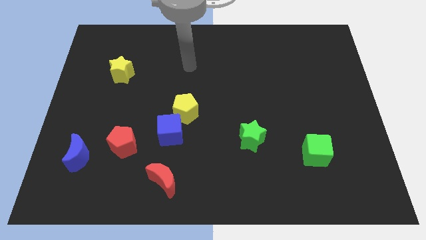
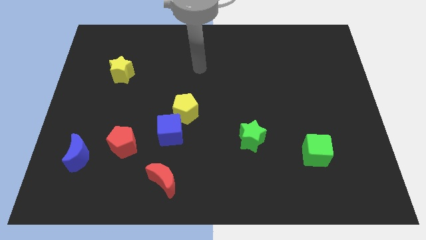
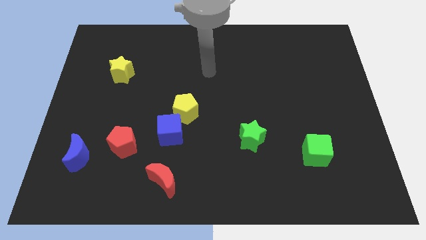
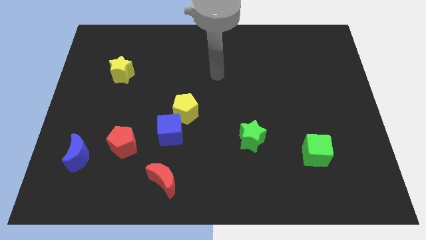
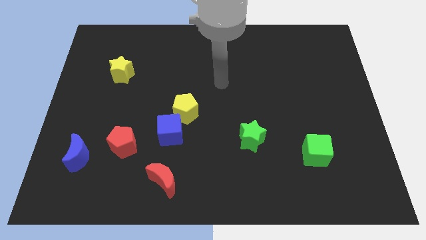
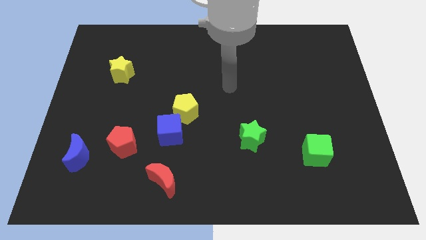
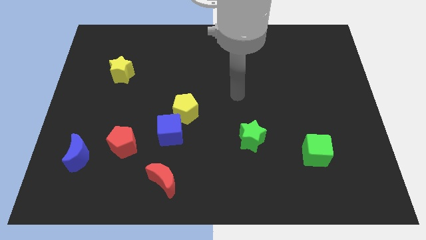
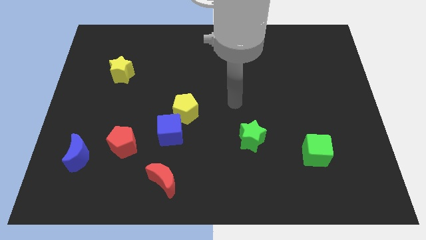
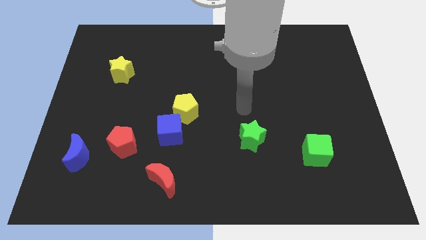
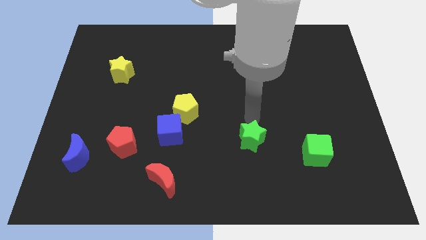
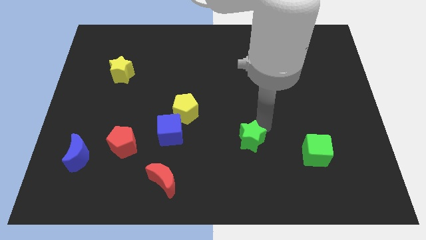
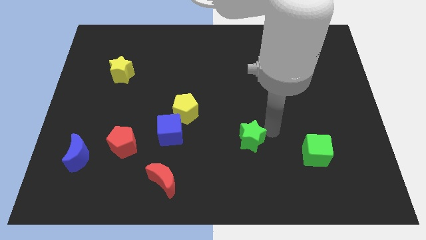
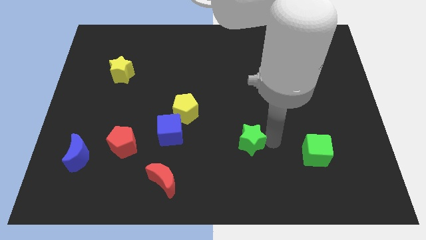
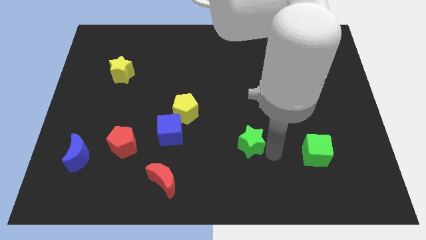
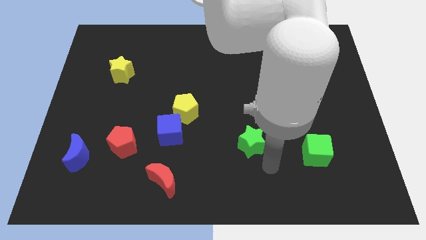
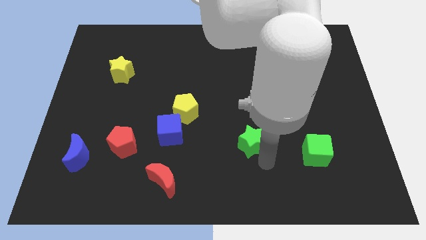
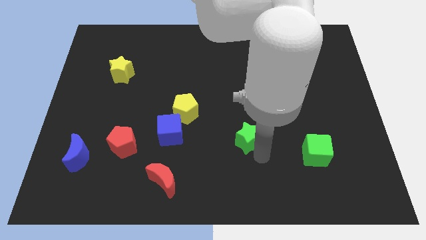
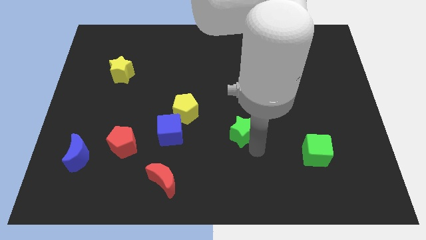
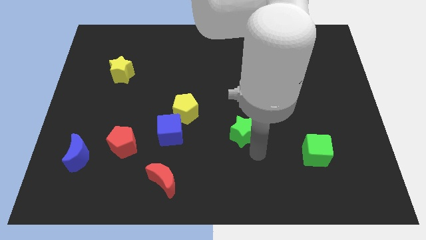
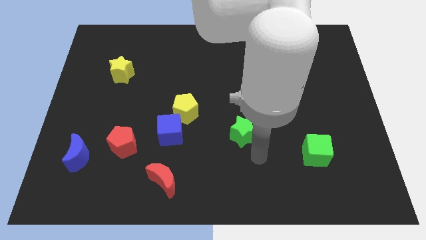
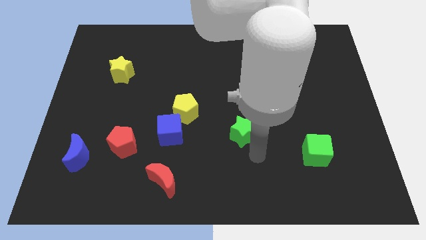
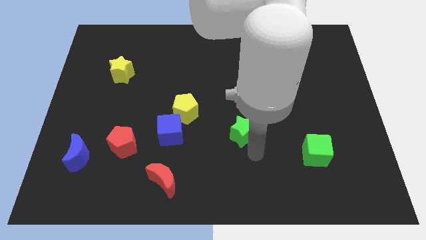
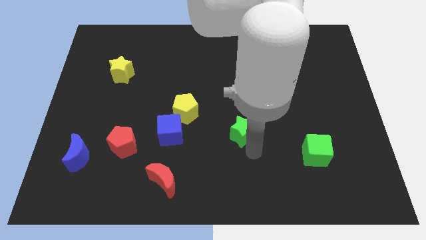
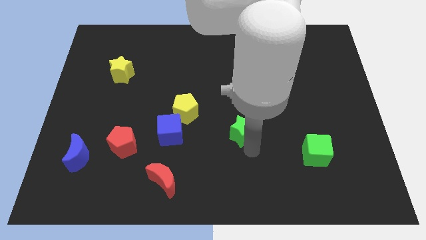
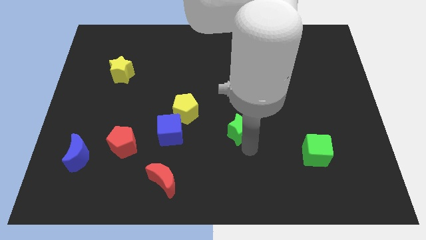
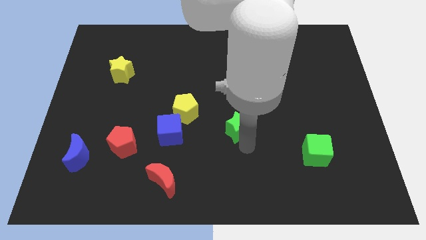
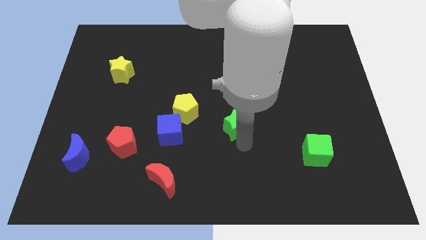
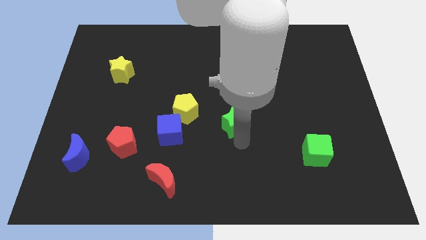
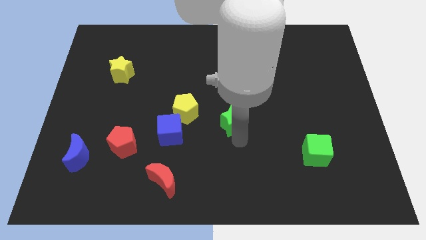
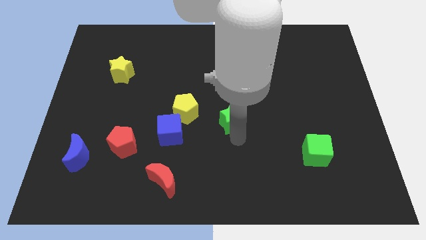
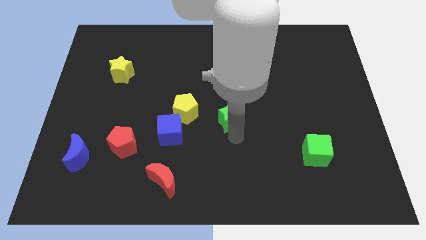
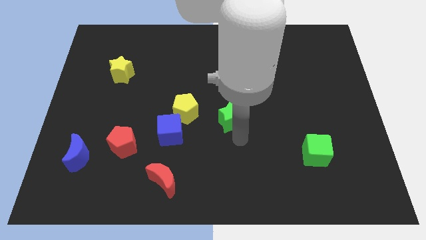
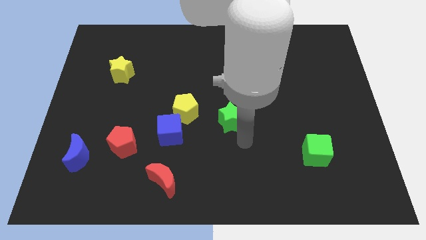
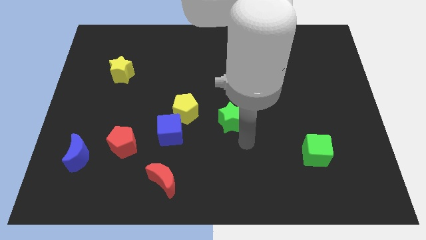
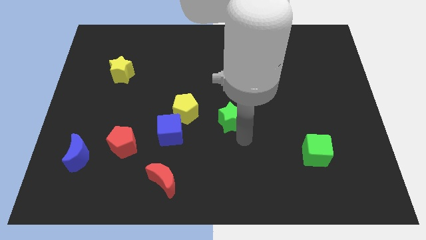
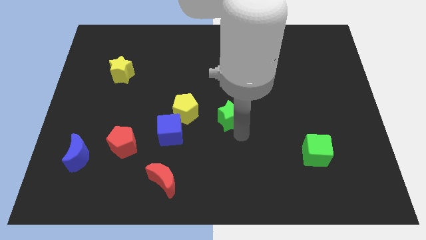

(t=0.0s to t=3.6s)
push the green star somewhat diagonally upwards and left

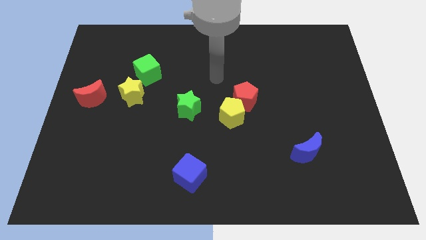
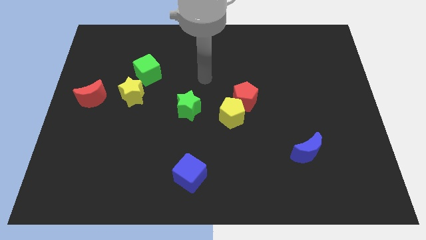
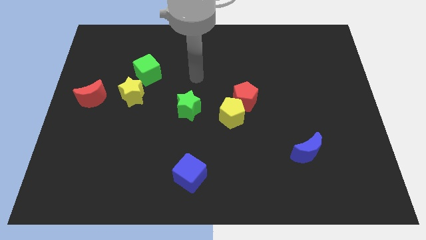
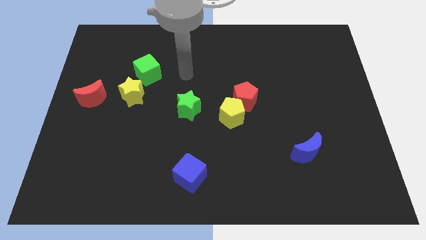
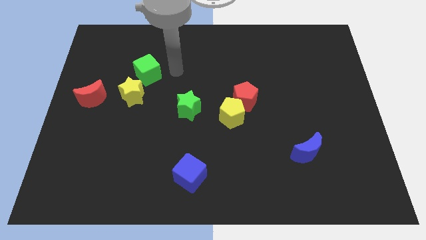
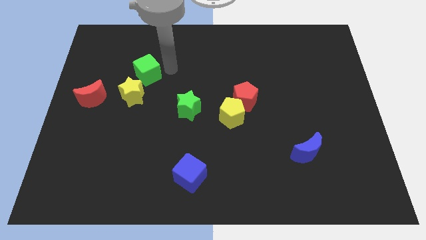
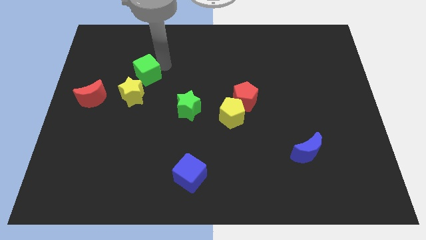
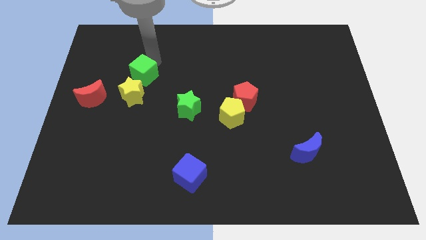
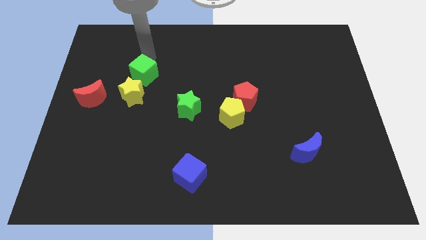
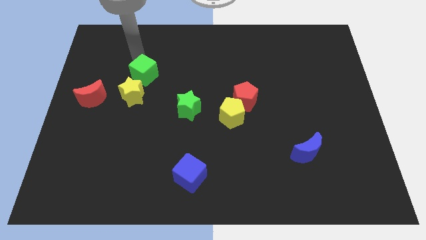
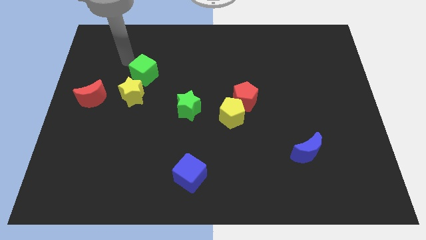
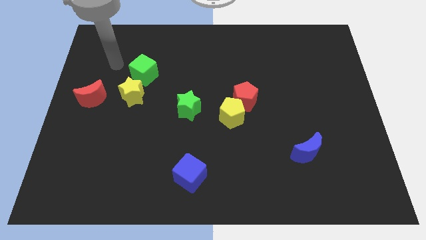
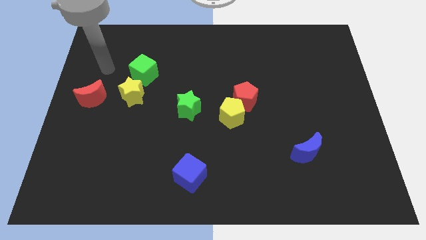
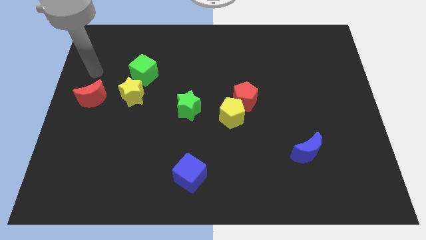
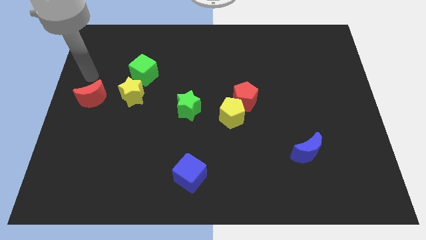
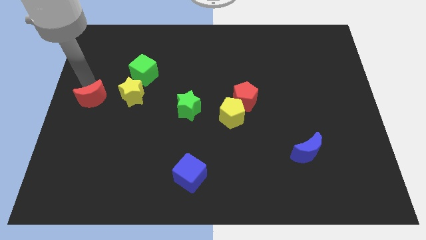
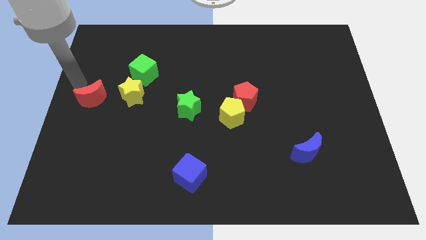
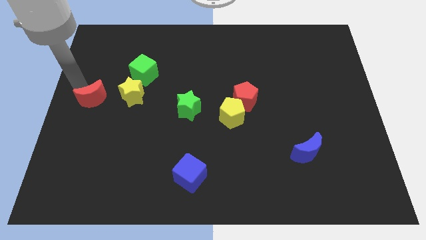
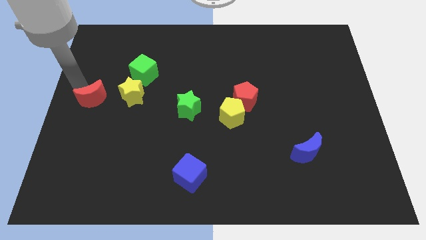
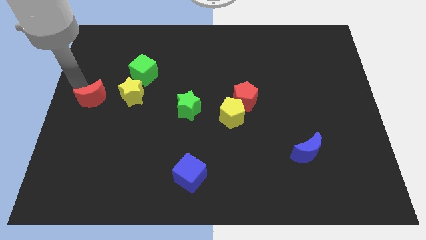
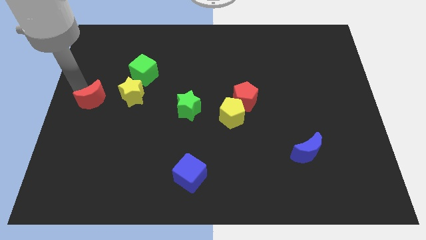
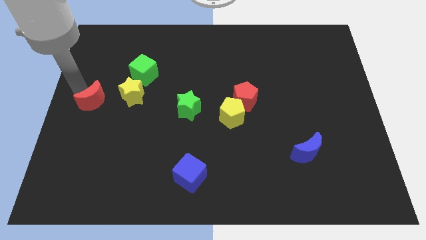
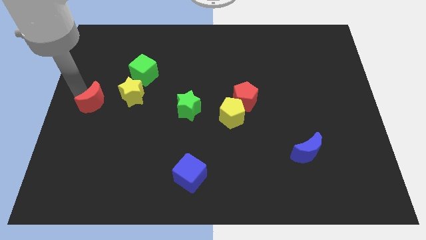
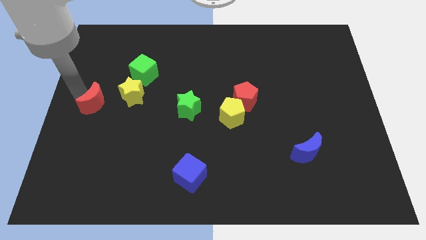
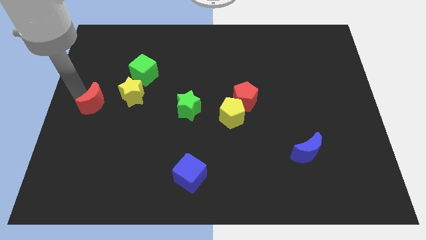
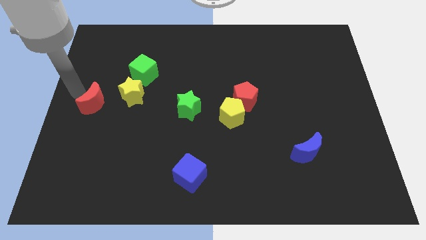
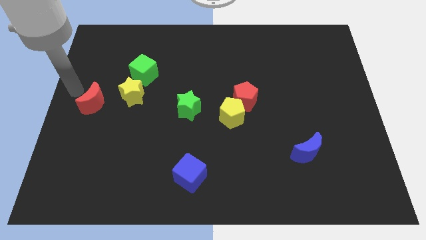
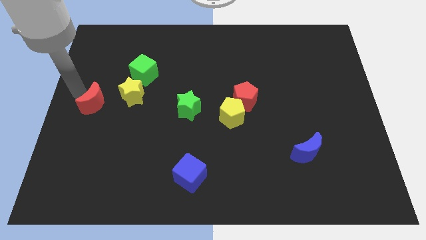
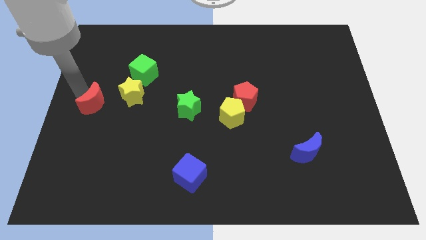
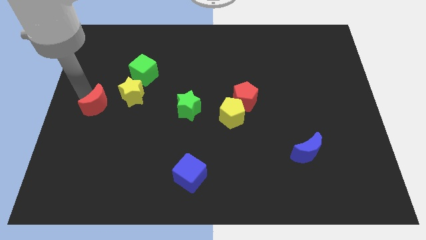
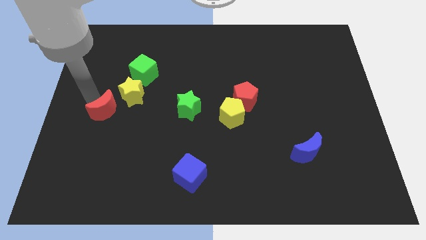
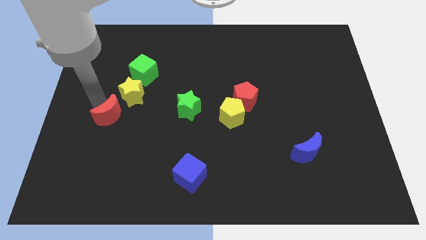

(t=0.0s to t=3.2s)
slide the red moon a little bit down and right

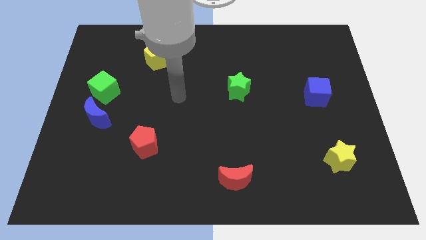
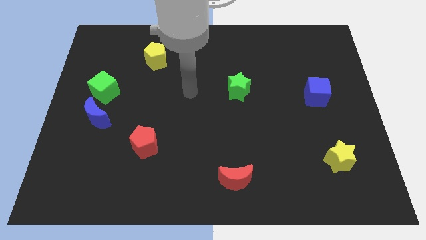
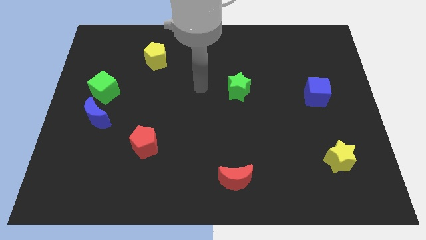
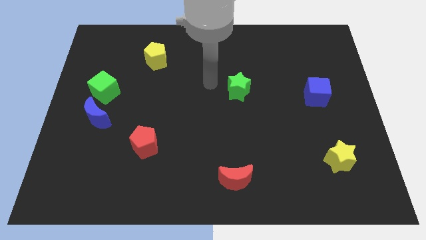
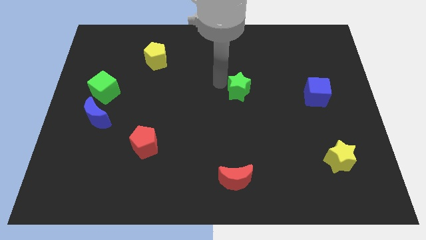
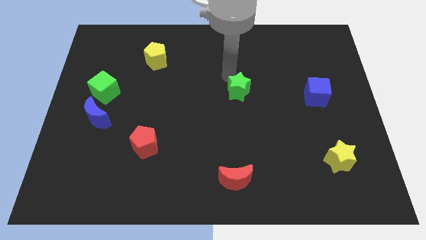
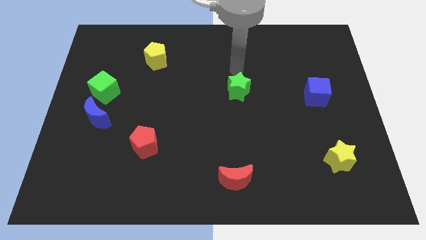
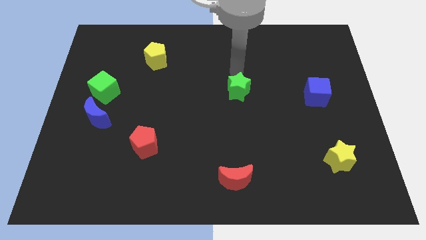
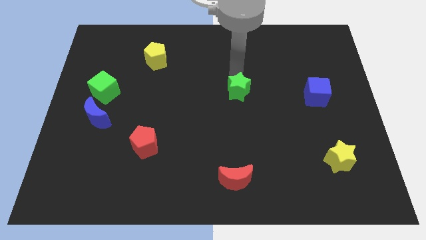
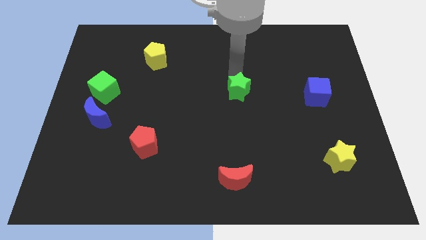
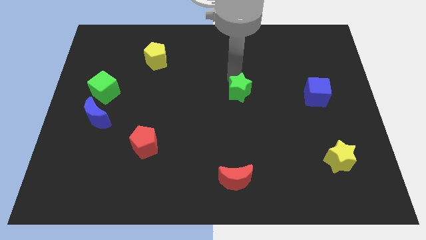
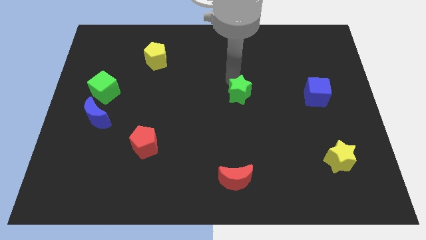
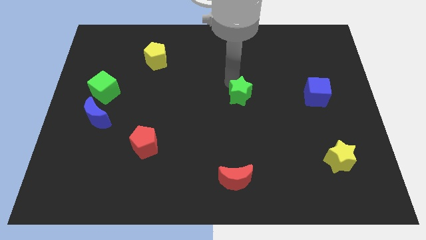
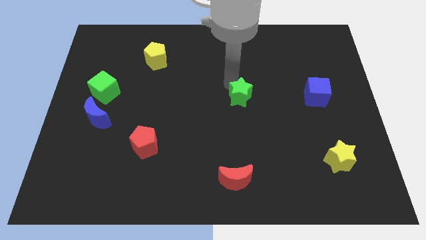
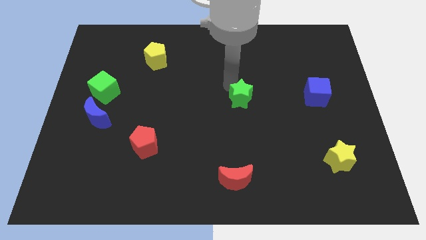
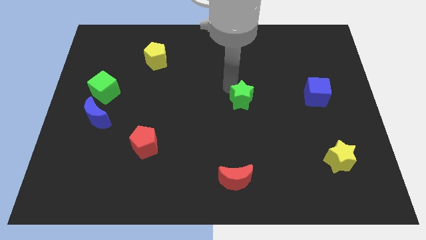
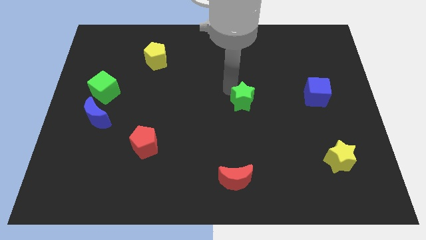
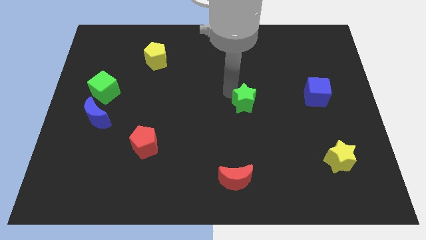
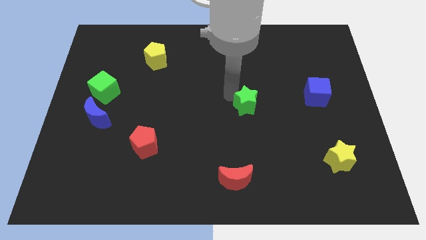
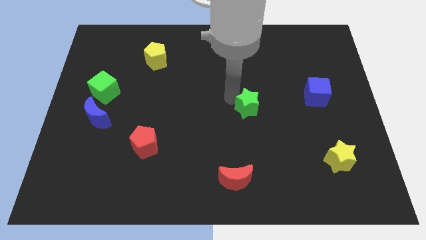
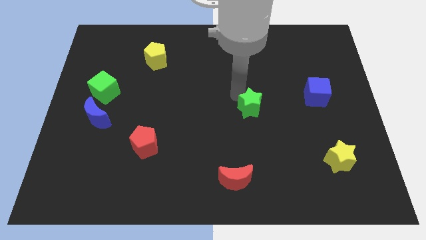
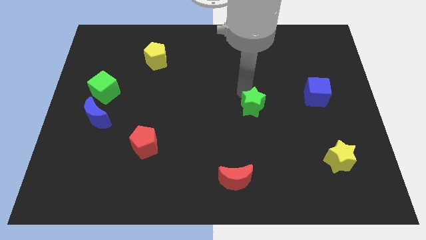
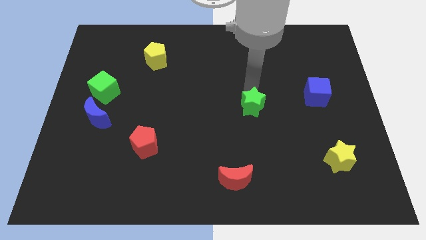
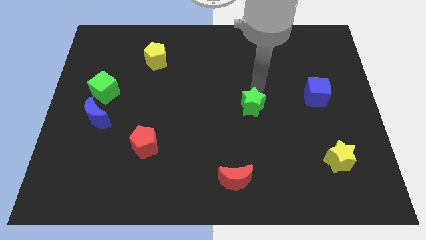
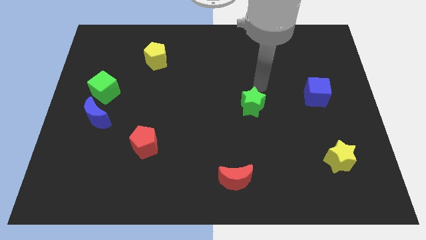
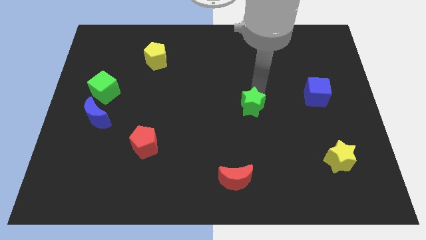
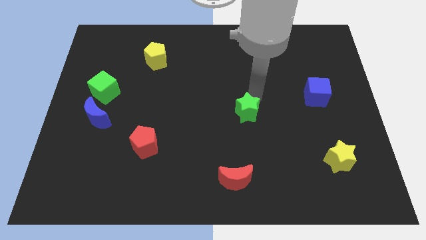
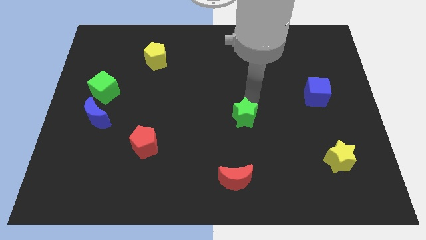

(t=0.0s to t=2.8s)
push the green star down slightly
